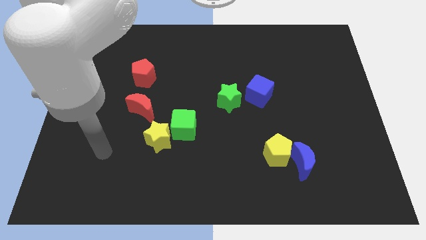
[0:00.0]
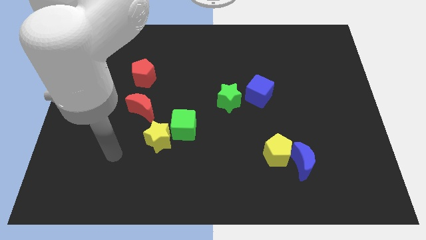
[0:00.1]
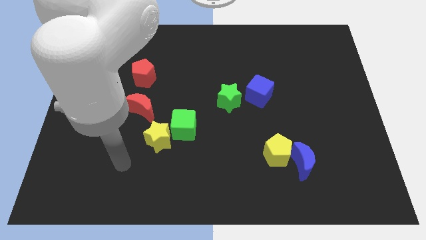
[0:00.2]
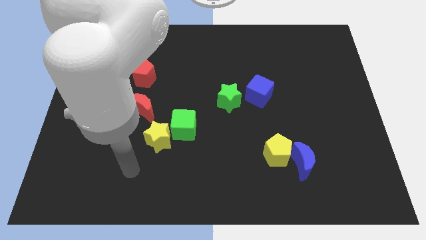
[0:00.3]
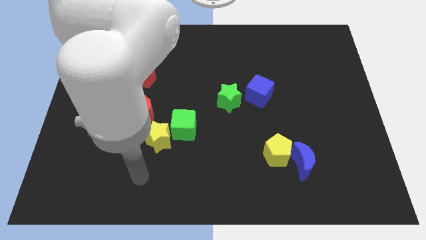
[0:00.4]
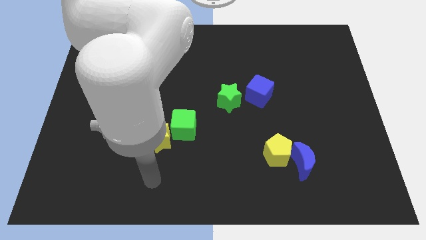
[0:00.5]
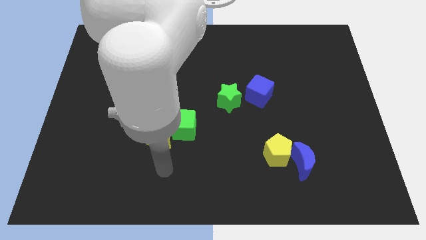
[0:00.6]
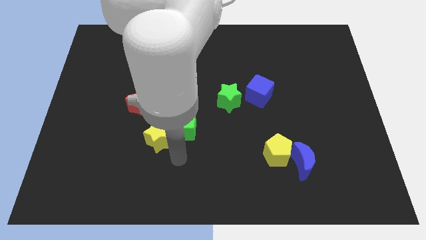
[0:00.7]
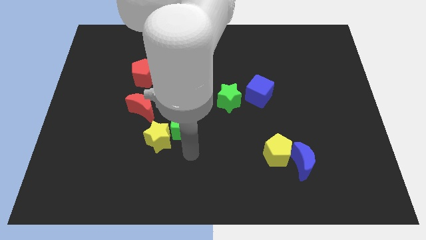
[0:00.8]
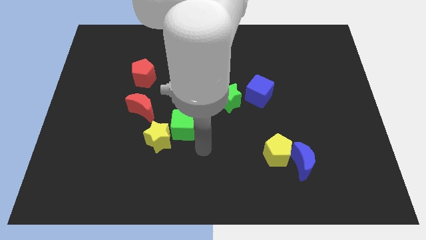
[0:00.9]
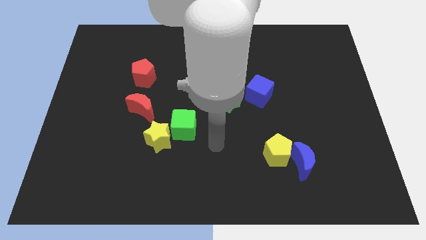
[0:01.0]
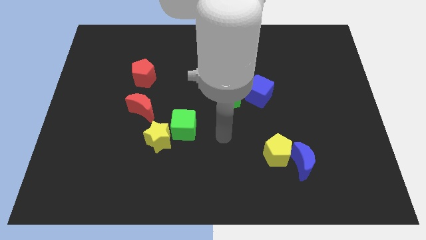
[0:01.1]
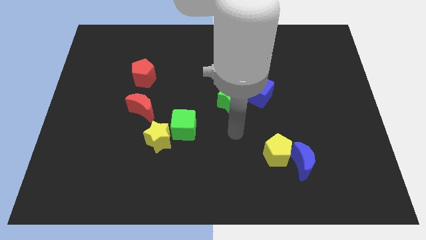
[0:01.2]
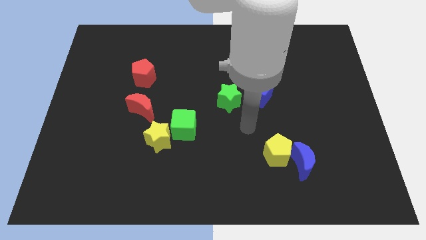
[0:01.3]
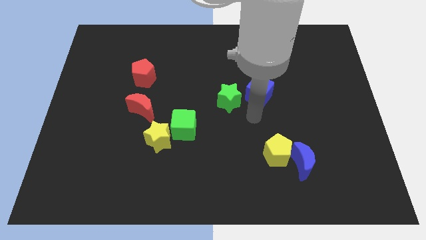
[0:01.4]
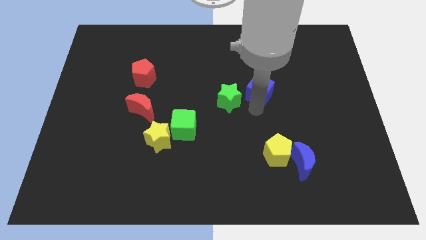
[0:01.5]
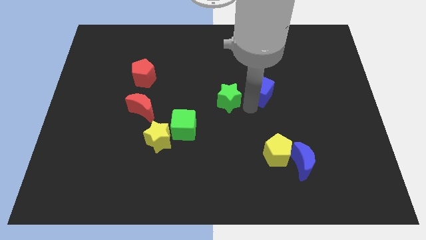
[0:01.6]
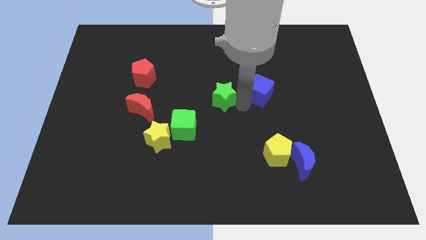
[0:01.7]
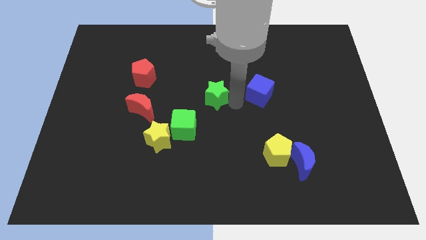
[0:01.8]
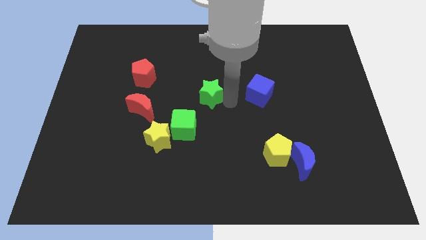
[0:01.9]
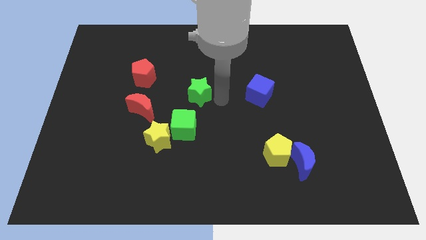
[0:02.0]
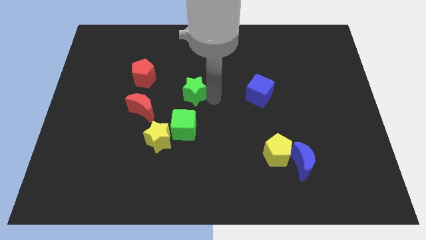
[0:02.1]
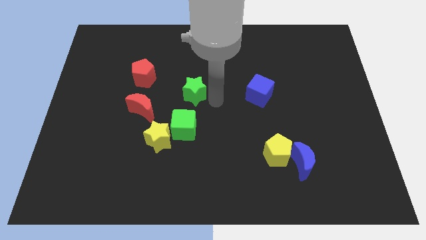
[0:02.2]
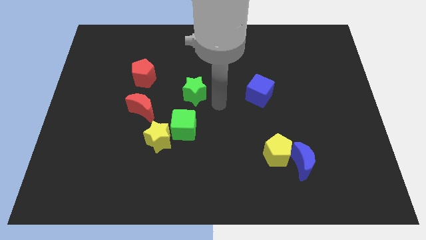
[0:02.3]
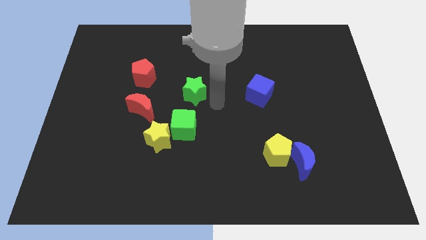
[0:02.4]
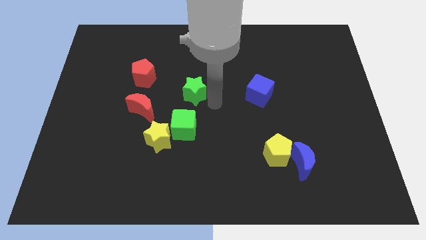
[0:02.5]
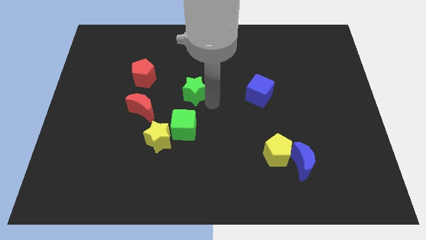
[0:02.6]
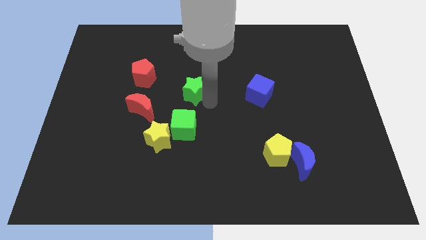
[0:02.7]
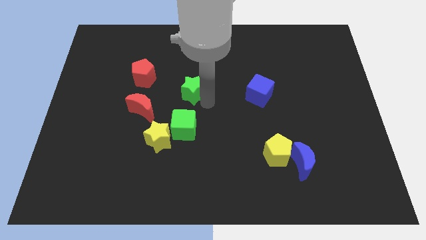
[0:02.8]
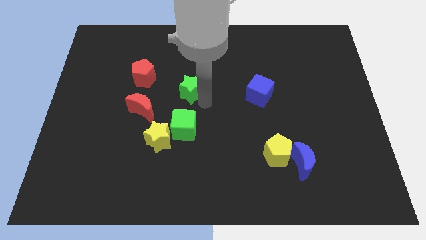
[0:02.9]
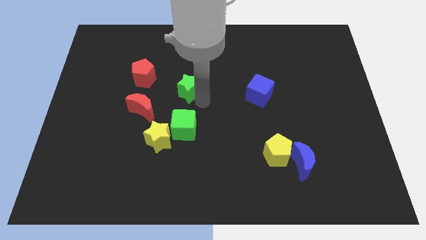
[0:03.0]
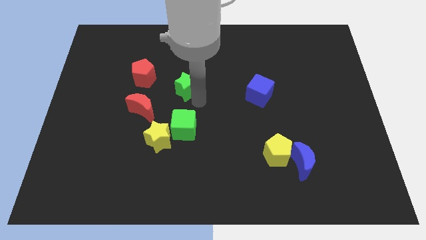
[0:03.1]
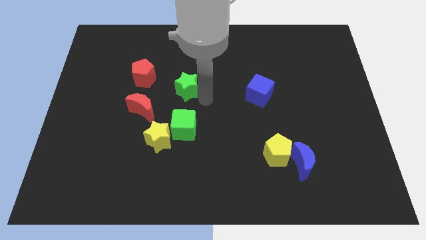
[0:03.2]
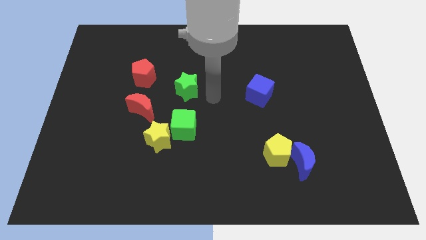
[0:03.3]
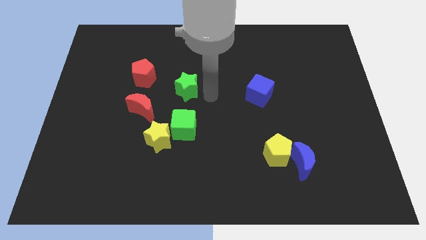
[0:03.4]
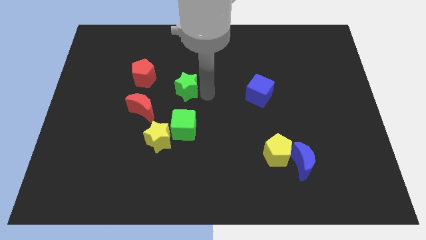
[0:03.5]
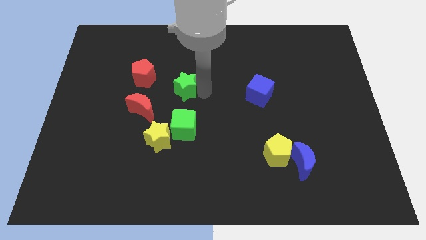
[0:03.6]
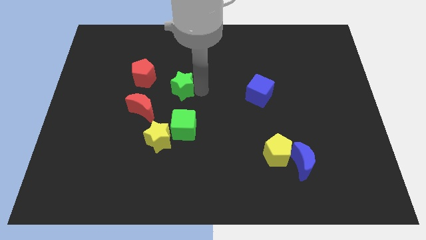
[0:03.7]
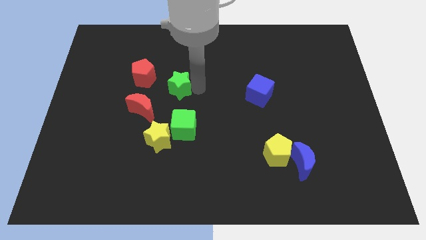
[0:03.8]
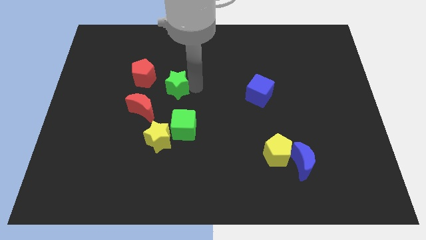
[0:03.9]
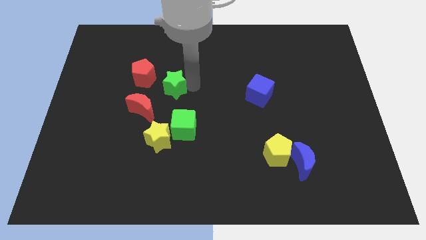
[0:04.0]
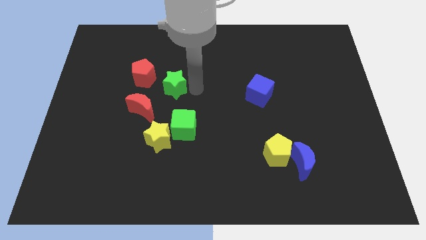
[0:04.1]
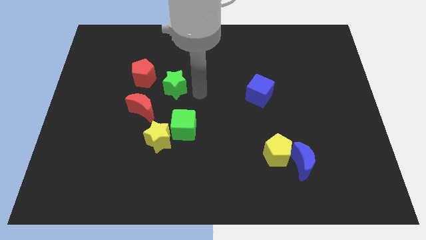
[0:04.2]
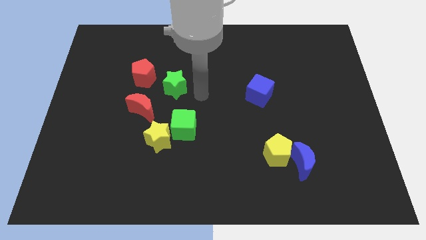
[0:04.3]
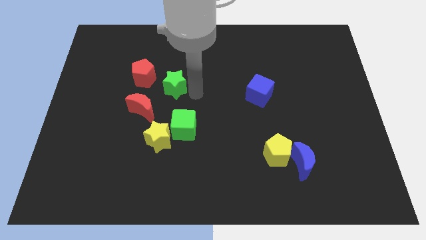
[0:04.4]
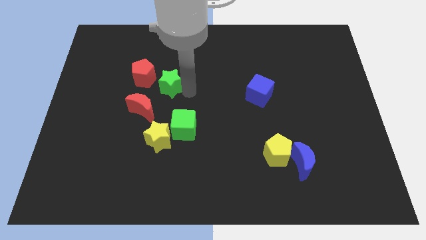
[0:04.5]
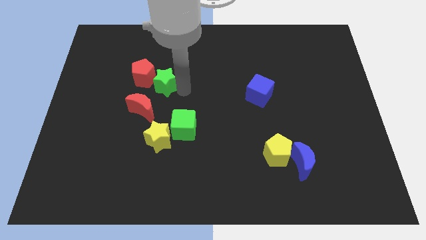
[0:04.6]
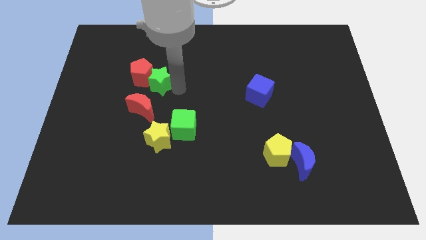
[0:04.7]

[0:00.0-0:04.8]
move the green star to the red pentagon

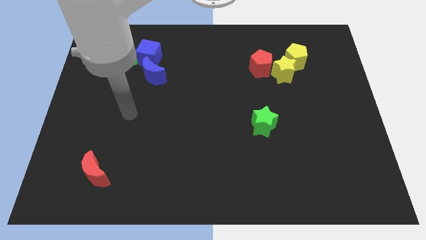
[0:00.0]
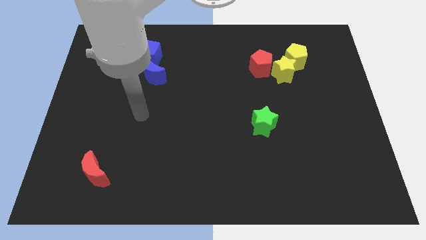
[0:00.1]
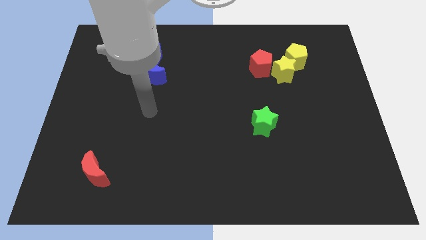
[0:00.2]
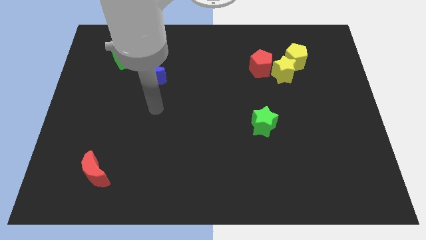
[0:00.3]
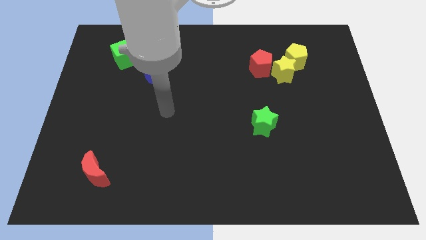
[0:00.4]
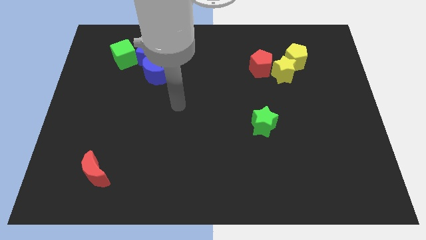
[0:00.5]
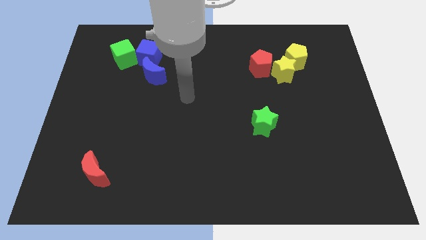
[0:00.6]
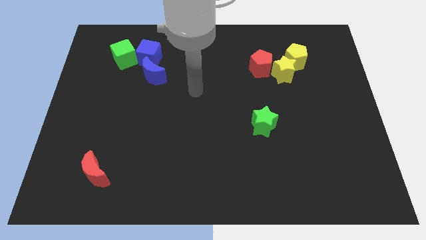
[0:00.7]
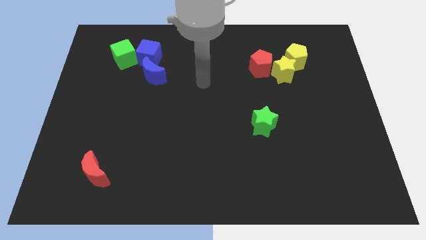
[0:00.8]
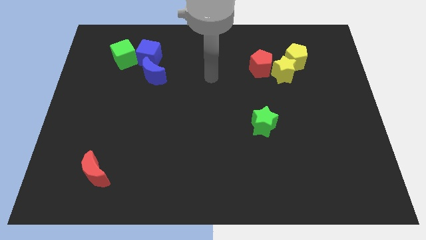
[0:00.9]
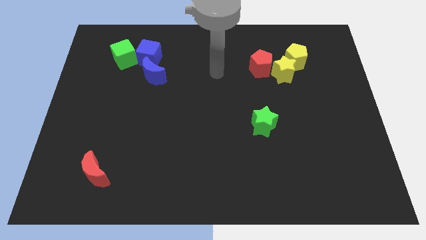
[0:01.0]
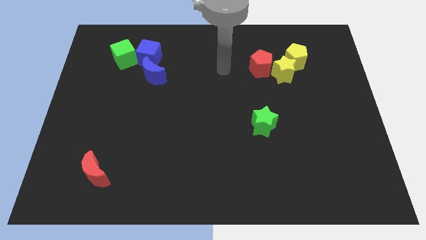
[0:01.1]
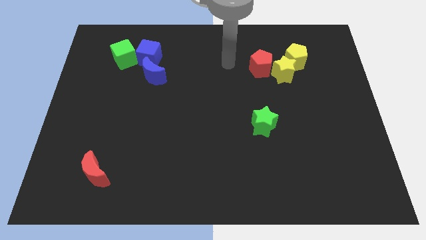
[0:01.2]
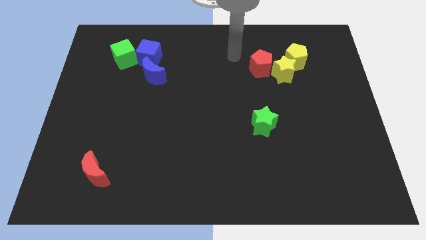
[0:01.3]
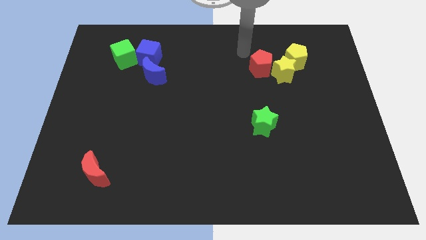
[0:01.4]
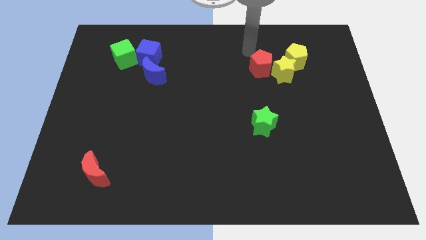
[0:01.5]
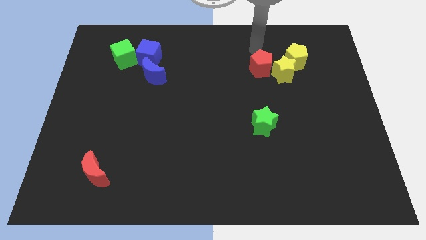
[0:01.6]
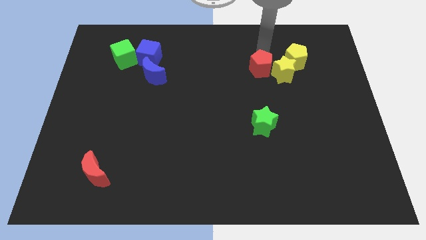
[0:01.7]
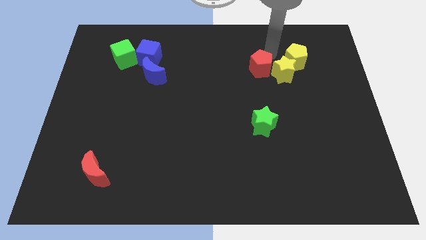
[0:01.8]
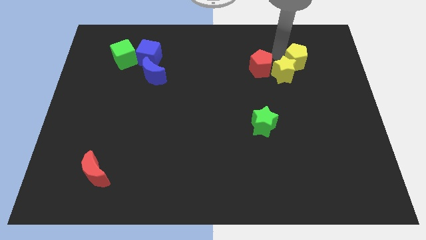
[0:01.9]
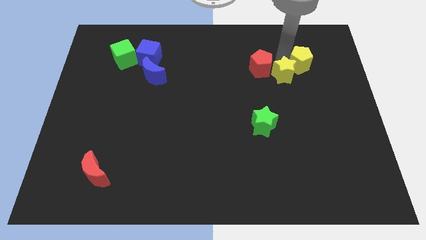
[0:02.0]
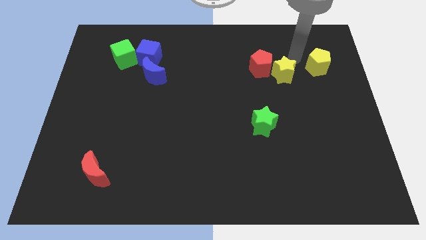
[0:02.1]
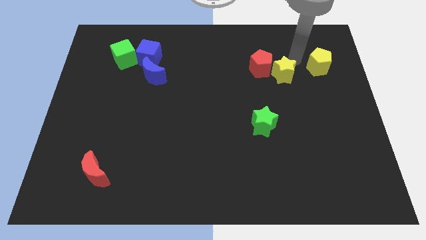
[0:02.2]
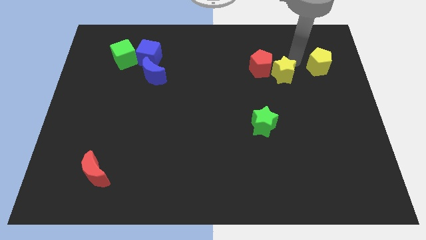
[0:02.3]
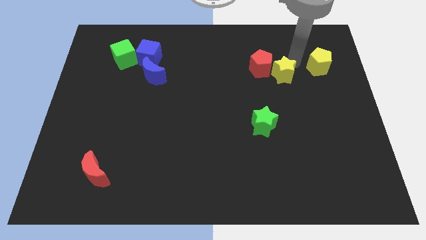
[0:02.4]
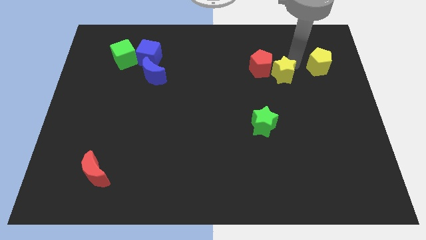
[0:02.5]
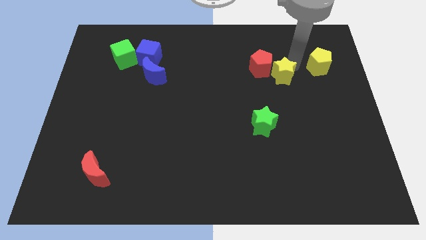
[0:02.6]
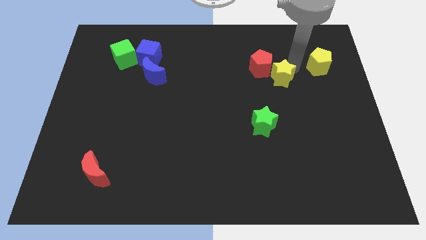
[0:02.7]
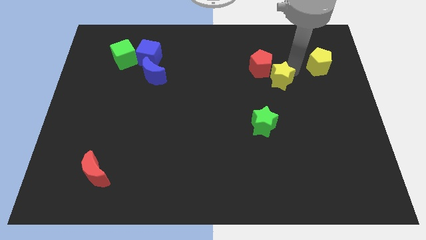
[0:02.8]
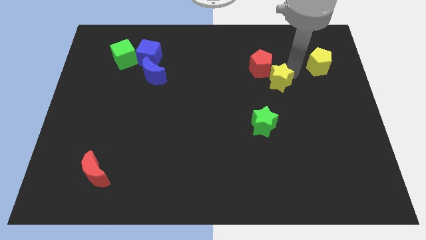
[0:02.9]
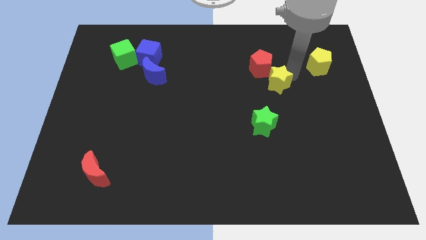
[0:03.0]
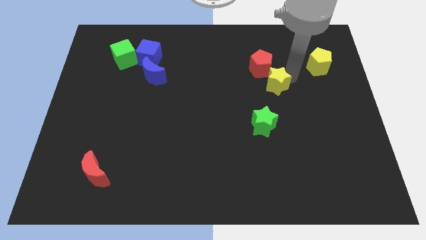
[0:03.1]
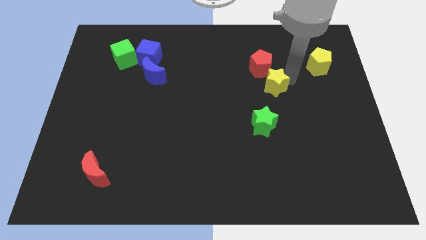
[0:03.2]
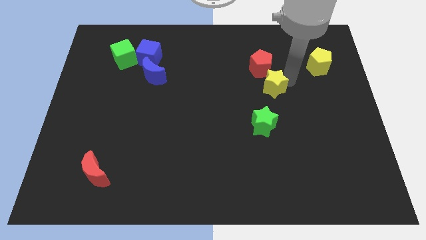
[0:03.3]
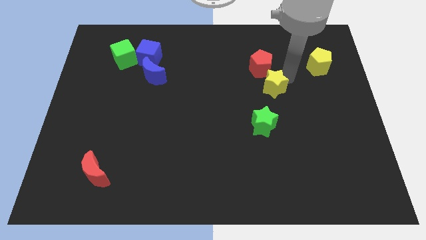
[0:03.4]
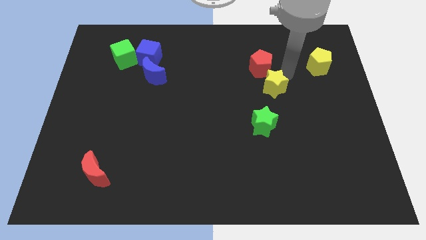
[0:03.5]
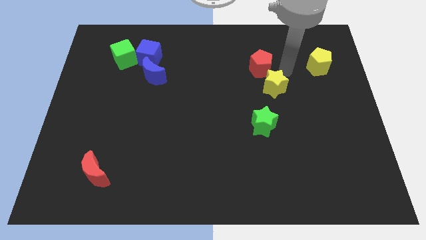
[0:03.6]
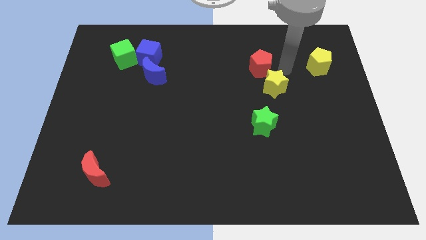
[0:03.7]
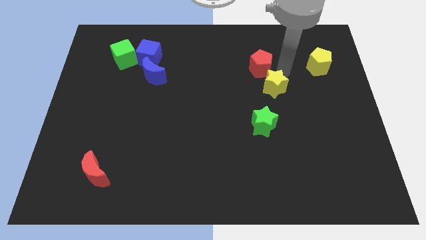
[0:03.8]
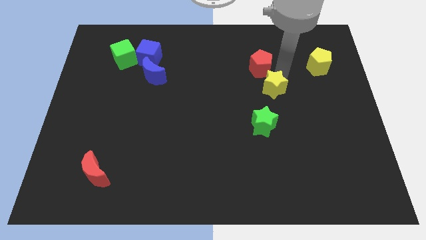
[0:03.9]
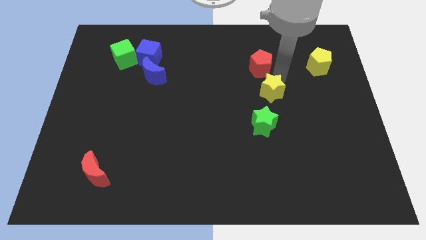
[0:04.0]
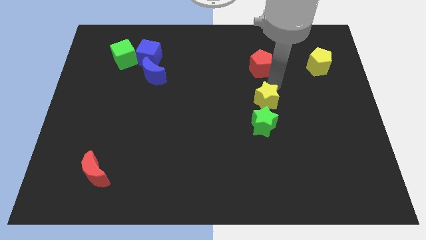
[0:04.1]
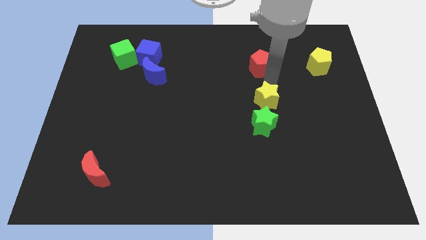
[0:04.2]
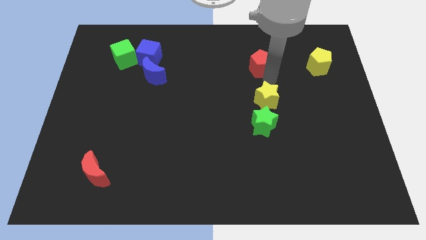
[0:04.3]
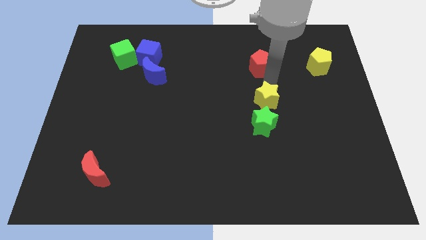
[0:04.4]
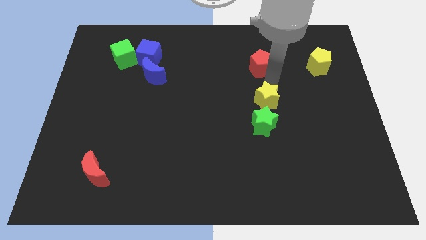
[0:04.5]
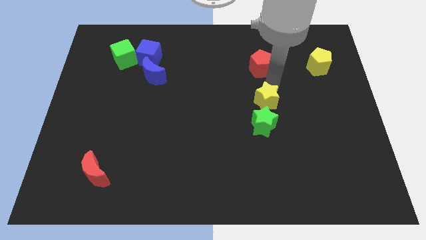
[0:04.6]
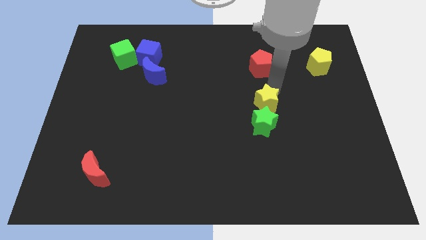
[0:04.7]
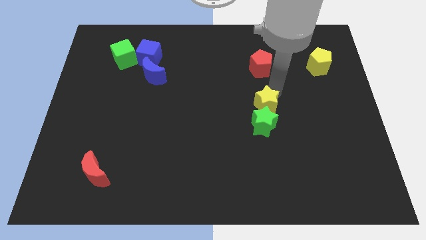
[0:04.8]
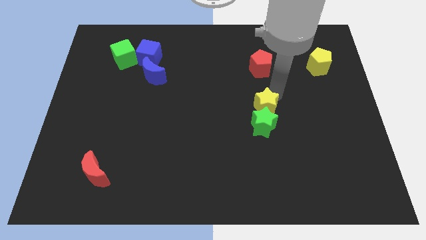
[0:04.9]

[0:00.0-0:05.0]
put the yellow star next to the green star
